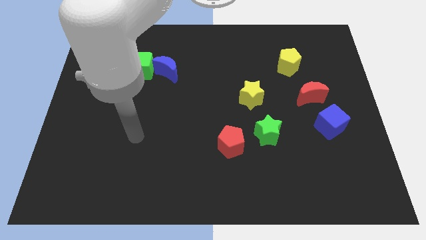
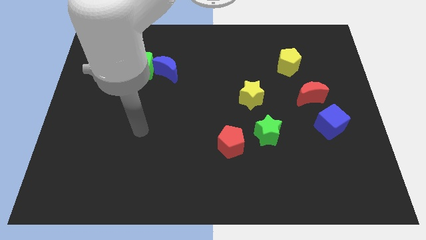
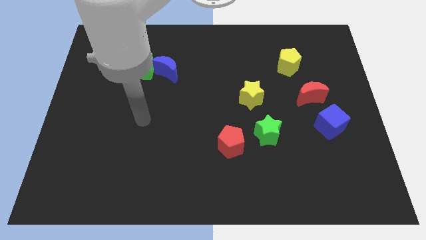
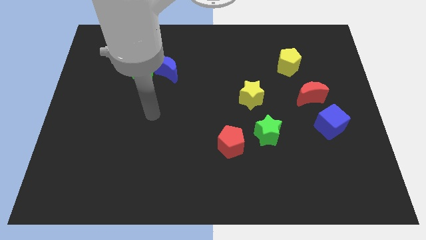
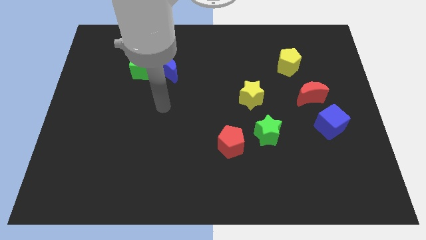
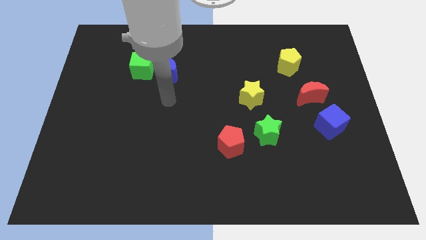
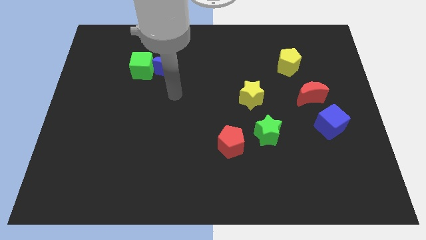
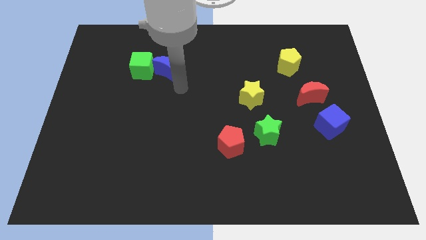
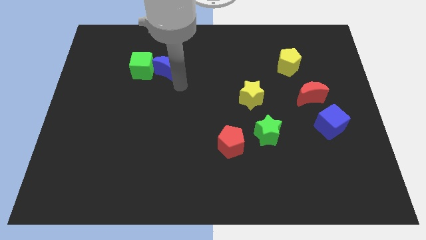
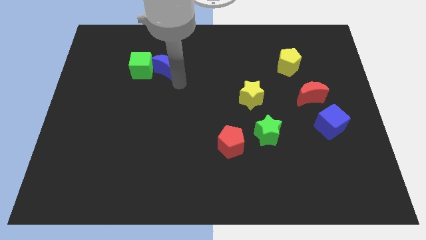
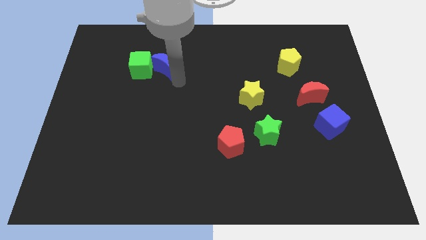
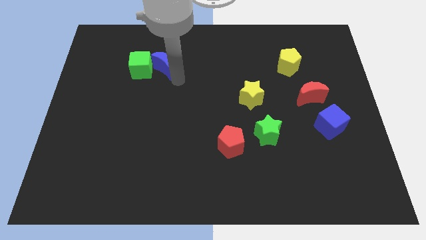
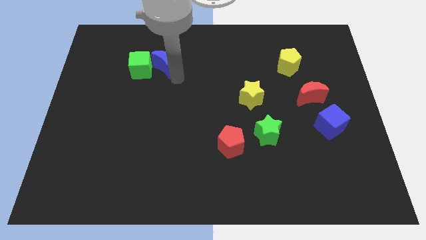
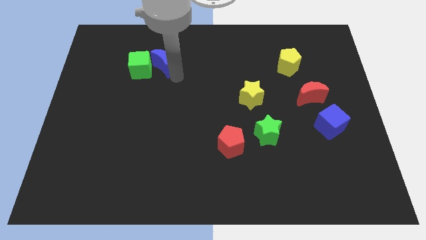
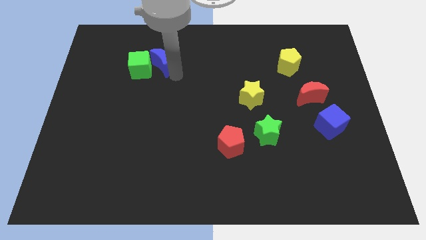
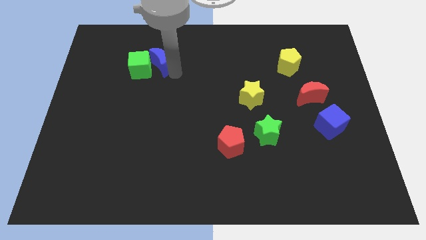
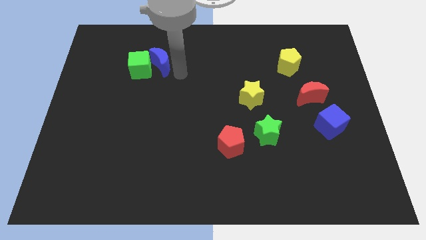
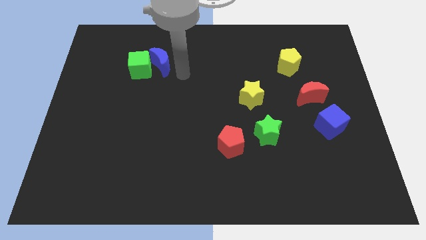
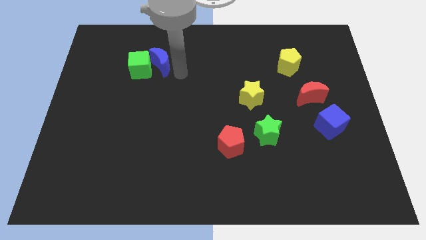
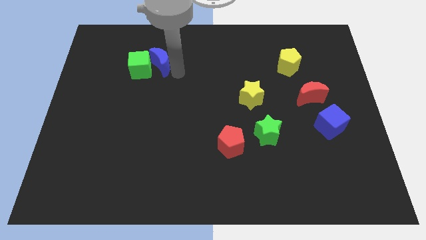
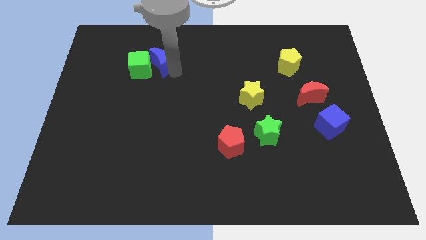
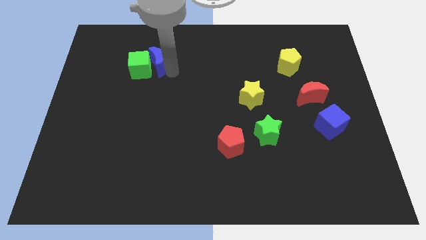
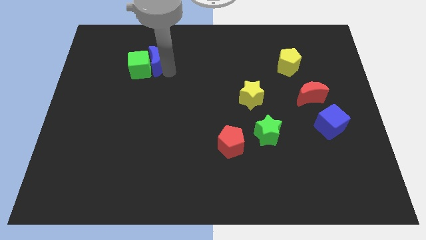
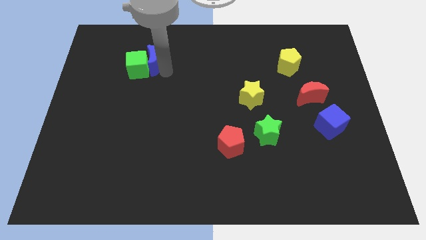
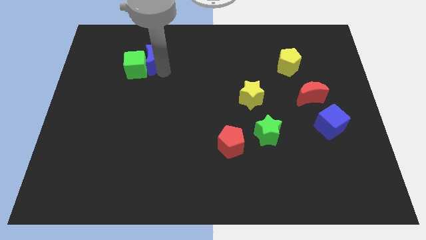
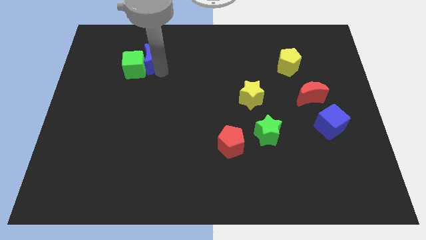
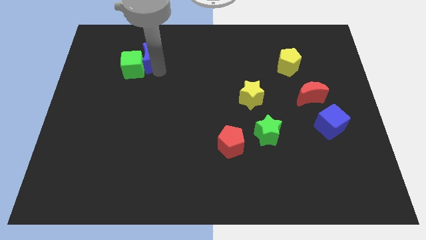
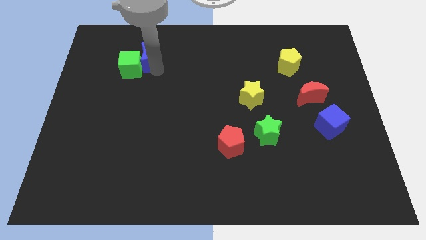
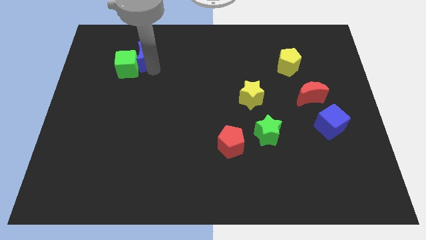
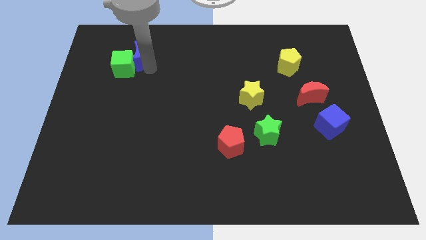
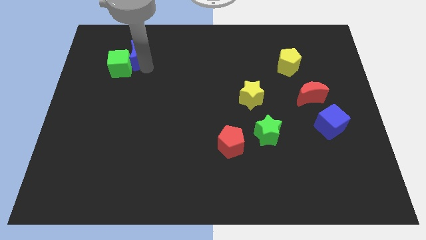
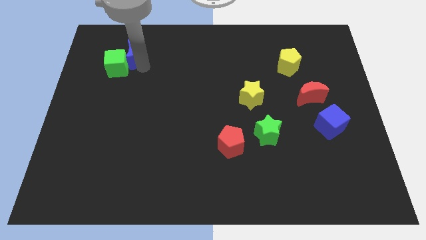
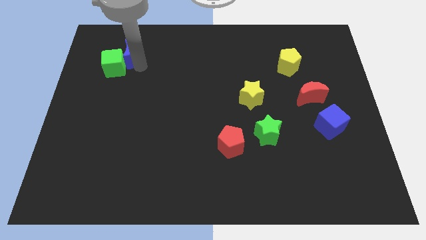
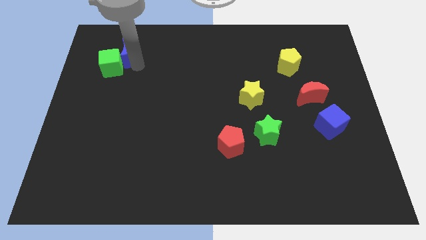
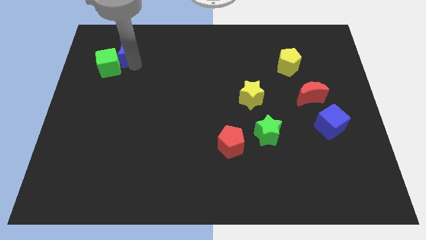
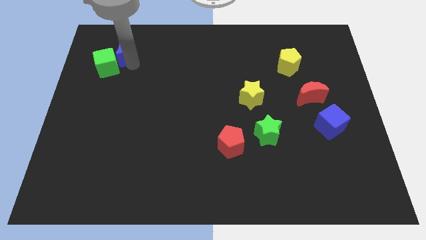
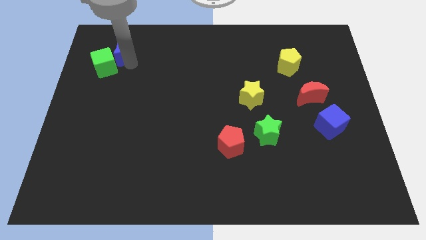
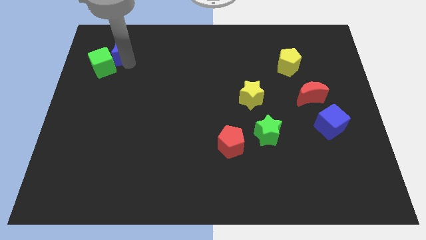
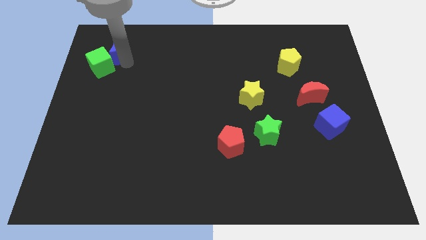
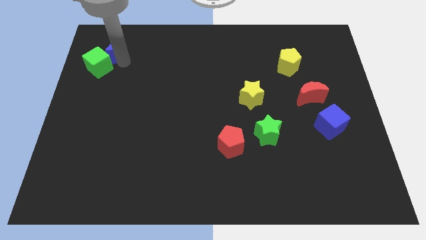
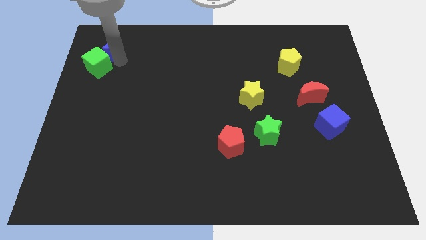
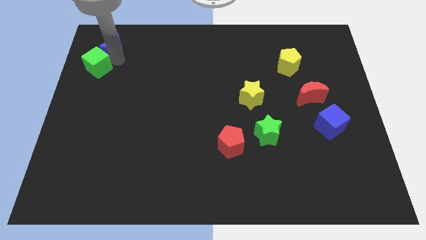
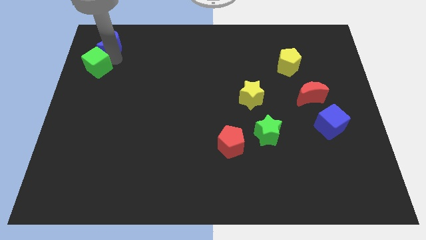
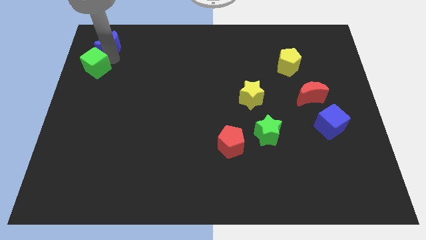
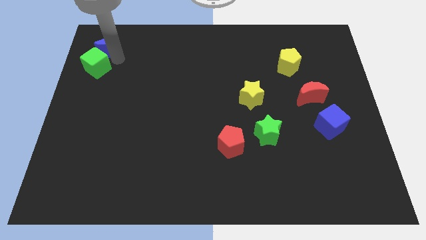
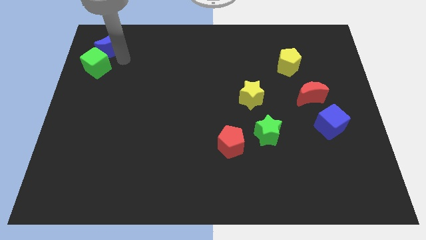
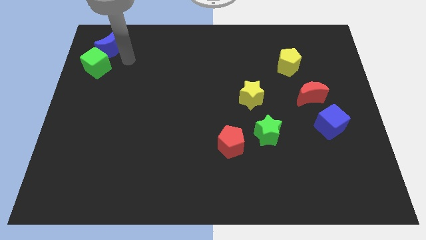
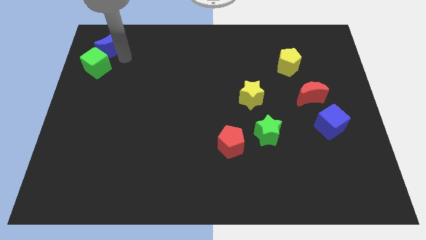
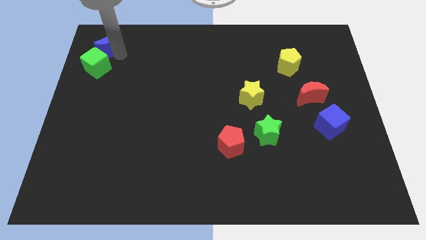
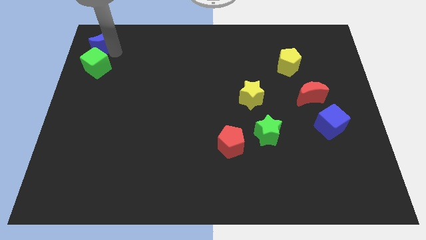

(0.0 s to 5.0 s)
push the blue moon to the top left of the board
